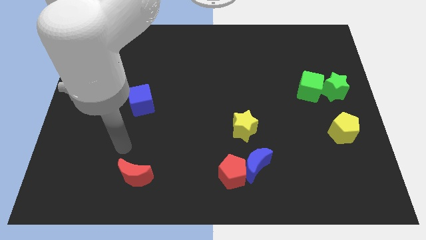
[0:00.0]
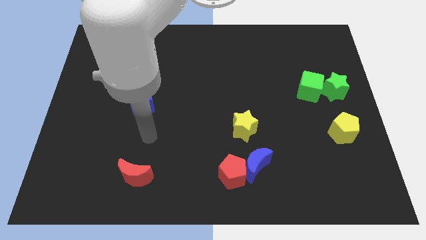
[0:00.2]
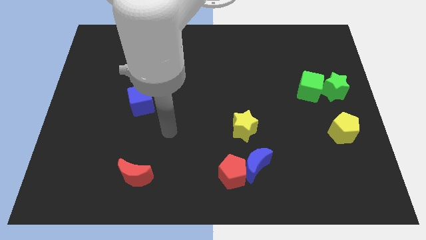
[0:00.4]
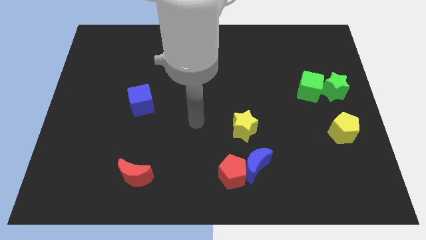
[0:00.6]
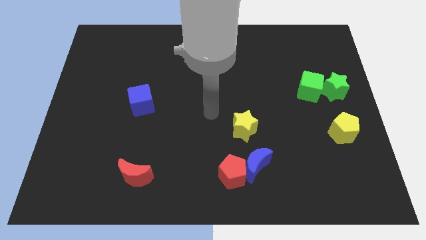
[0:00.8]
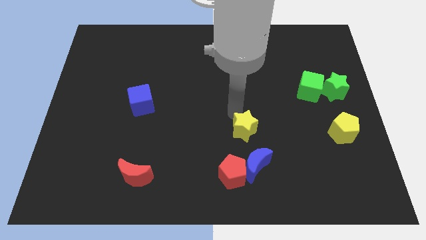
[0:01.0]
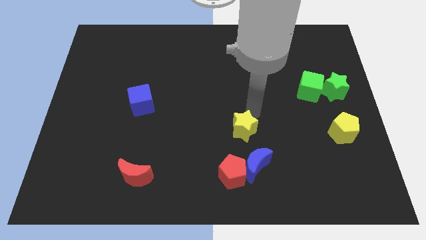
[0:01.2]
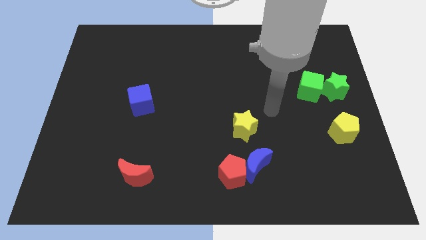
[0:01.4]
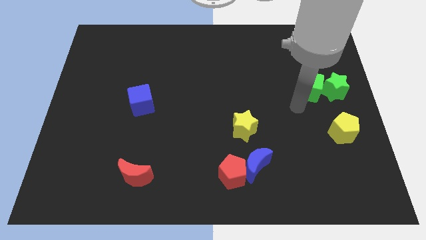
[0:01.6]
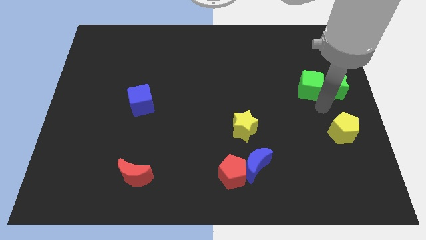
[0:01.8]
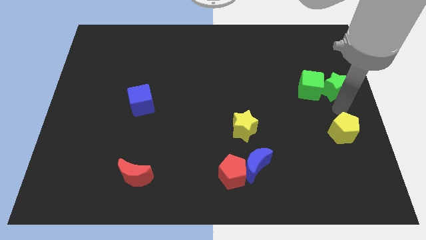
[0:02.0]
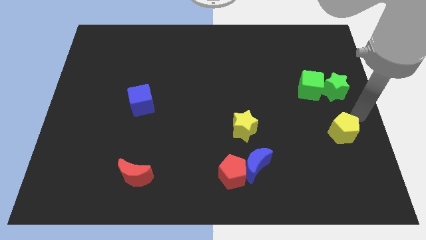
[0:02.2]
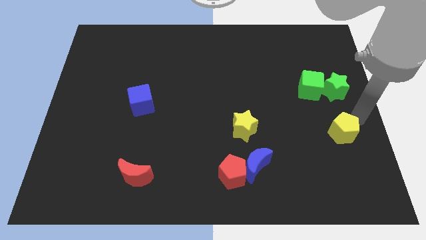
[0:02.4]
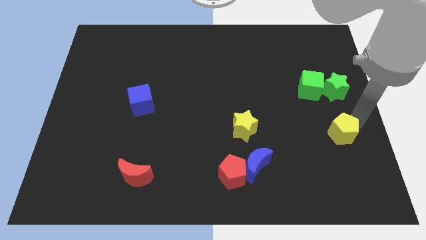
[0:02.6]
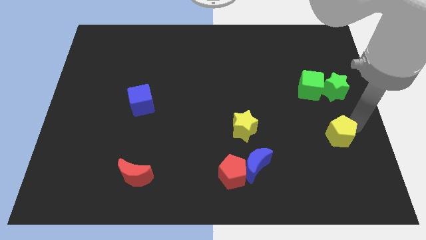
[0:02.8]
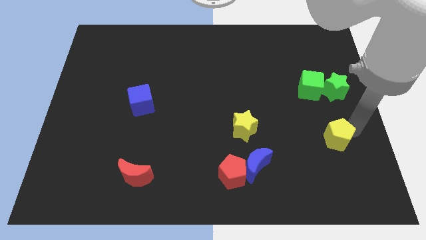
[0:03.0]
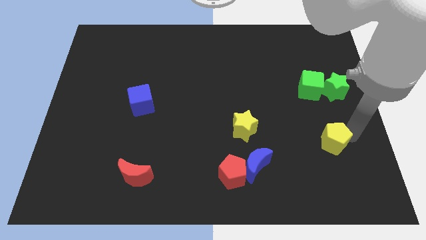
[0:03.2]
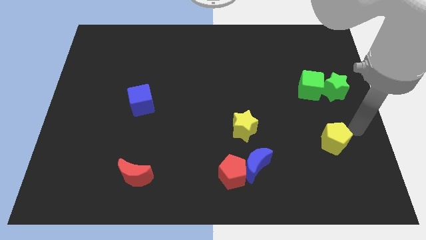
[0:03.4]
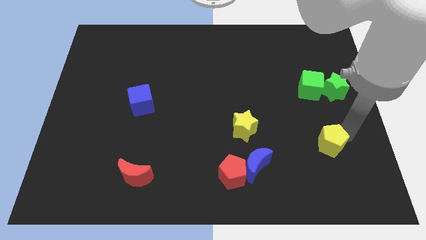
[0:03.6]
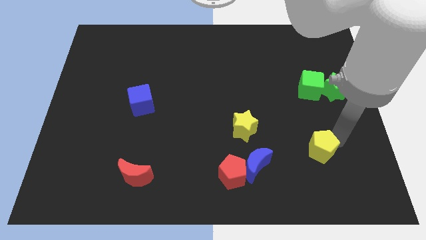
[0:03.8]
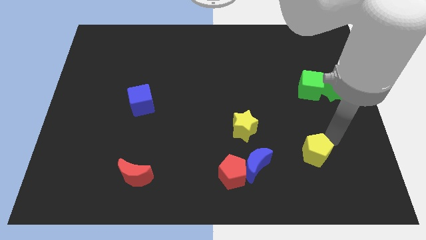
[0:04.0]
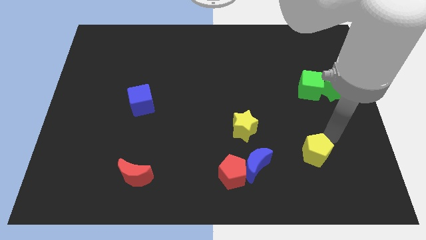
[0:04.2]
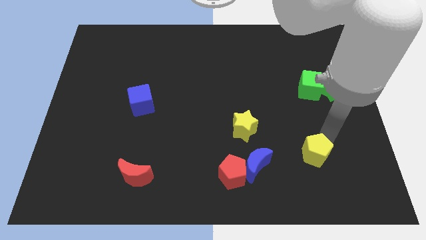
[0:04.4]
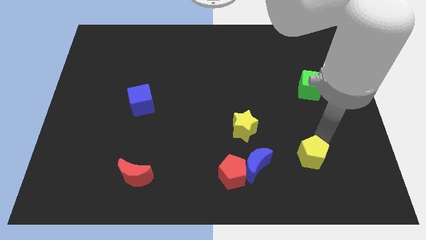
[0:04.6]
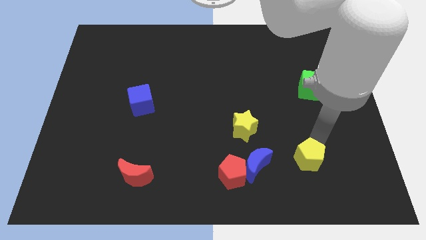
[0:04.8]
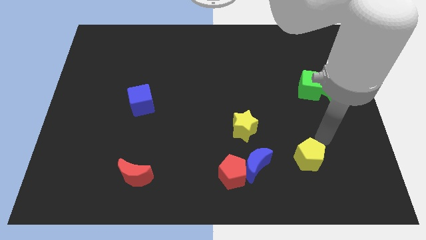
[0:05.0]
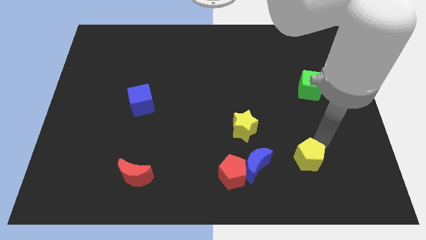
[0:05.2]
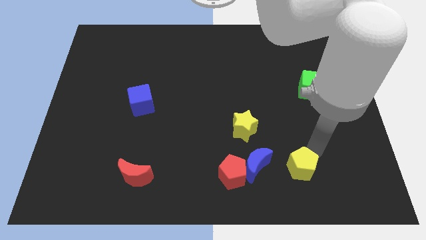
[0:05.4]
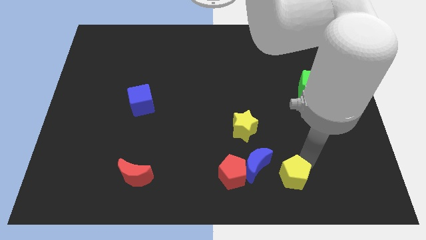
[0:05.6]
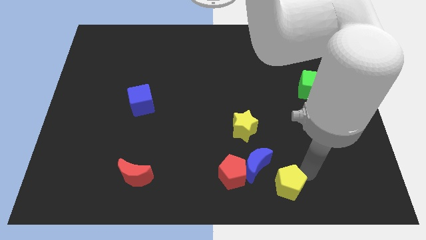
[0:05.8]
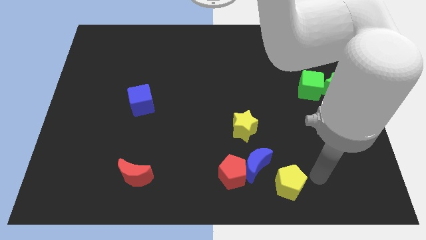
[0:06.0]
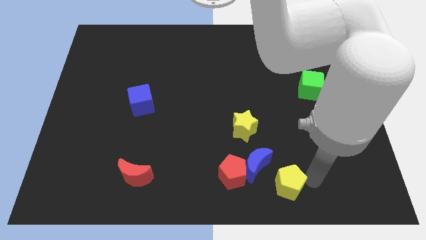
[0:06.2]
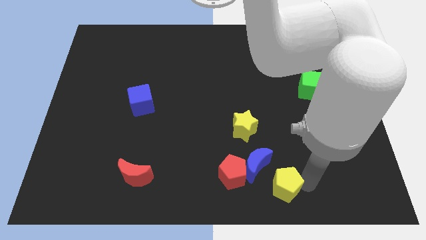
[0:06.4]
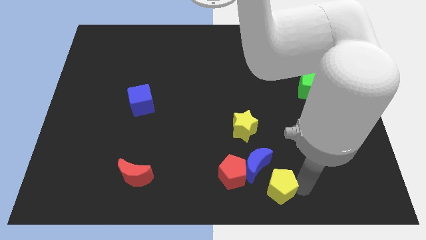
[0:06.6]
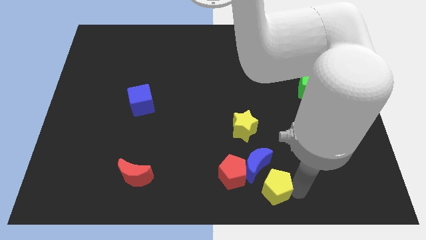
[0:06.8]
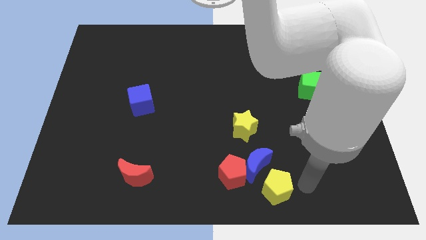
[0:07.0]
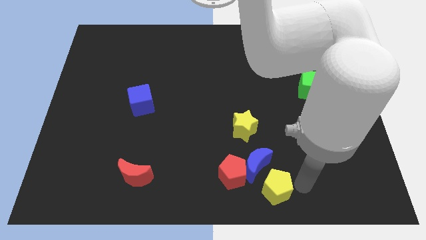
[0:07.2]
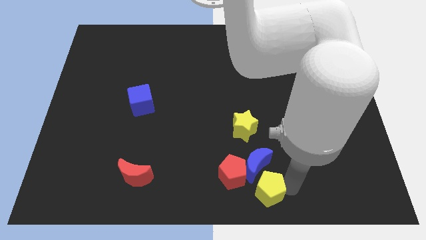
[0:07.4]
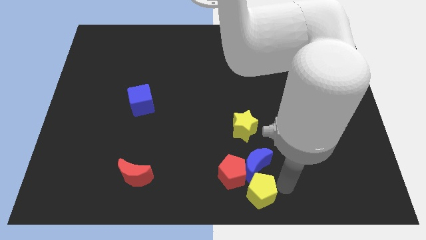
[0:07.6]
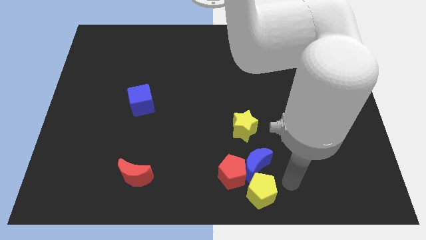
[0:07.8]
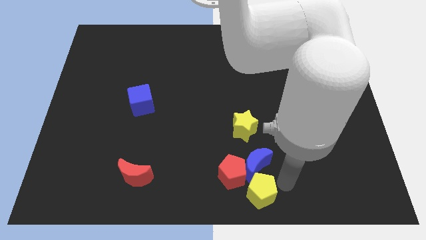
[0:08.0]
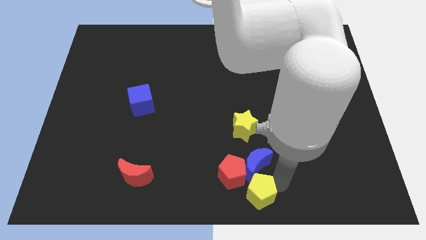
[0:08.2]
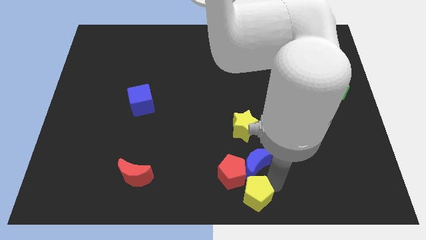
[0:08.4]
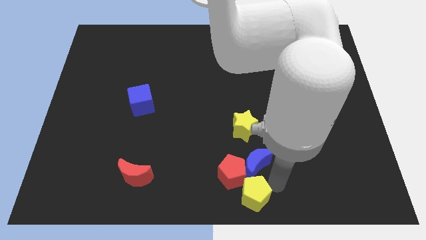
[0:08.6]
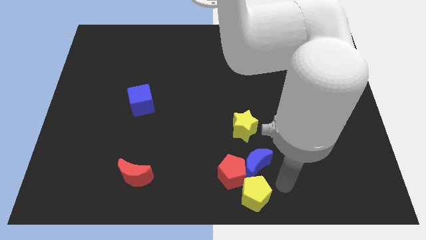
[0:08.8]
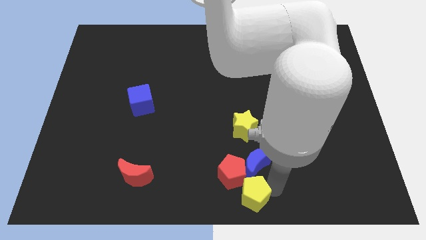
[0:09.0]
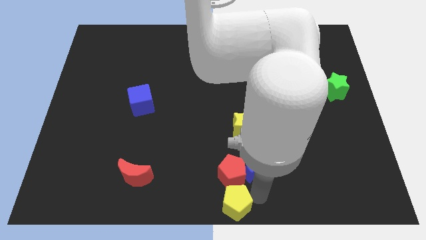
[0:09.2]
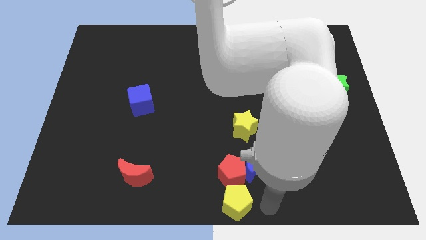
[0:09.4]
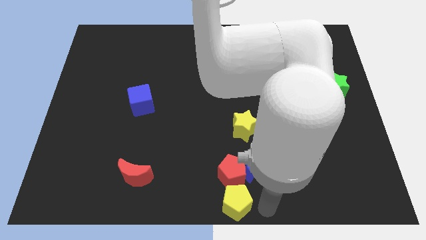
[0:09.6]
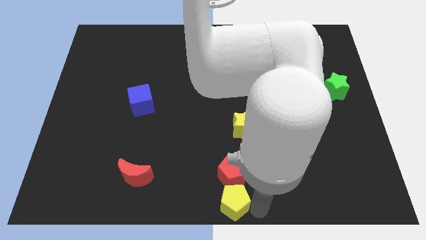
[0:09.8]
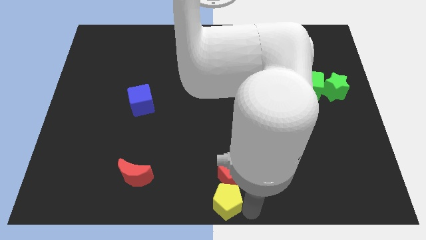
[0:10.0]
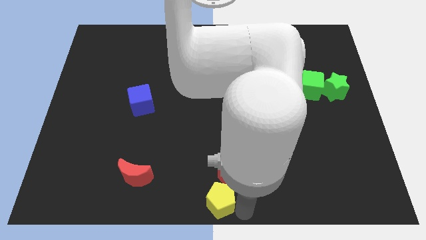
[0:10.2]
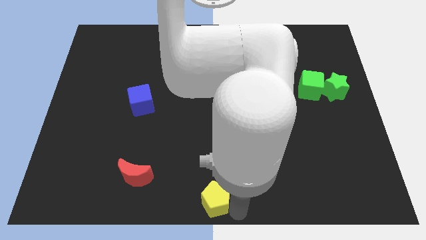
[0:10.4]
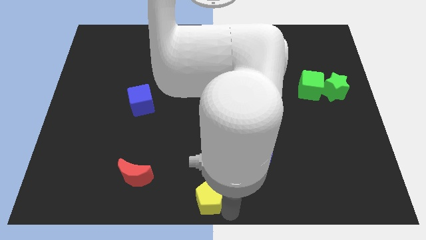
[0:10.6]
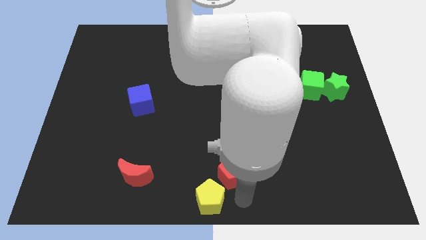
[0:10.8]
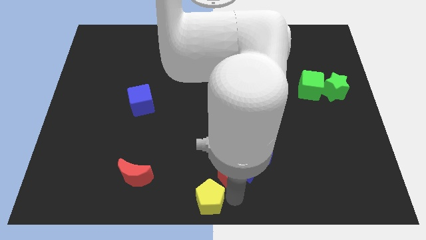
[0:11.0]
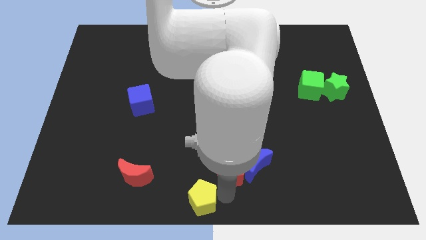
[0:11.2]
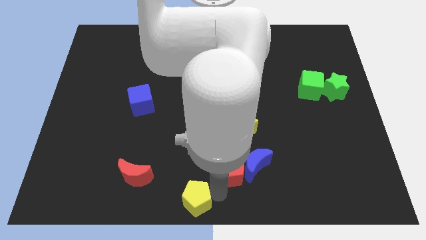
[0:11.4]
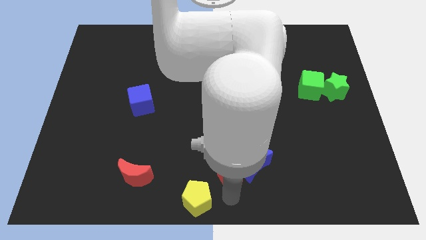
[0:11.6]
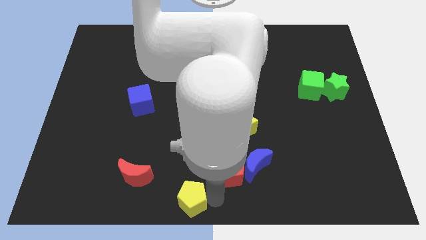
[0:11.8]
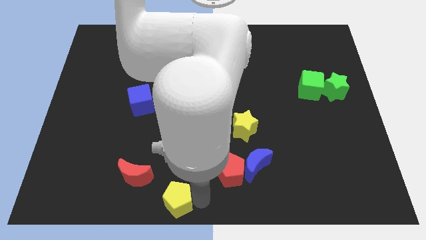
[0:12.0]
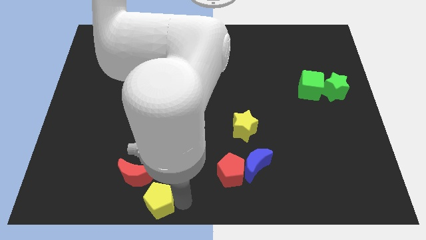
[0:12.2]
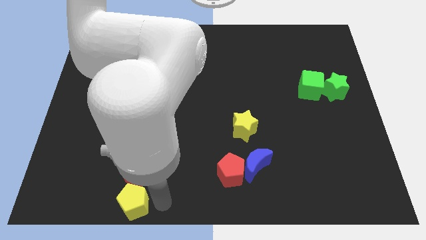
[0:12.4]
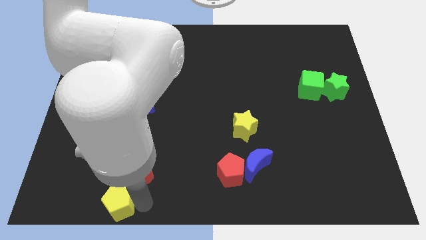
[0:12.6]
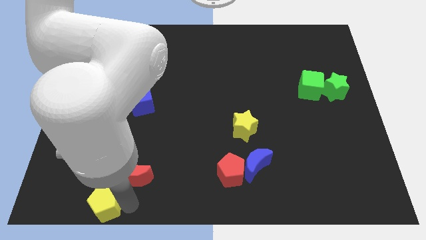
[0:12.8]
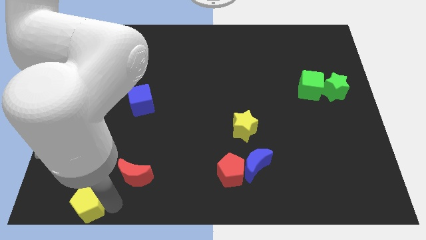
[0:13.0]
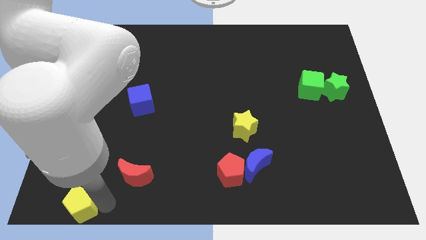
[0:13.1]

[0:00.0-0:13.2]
move the yellow pentagon to the bottom left corner

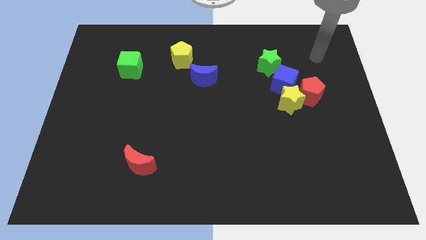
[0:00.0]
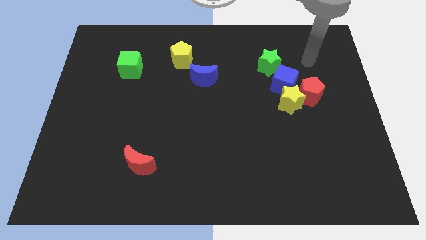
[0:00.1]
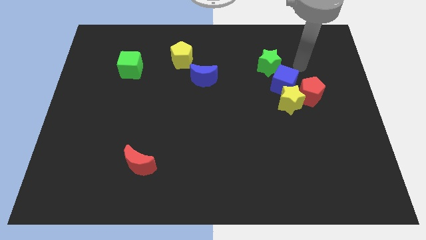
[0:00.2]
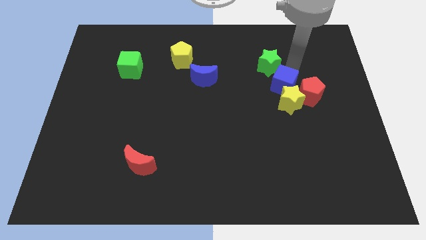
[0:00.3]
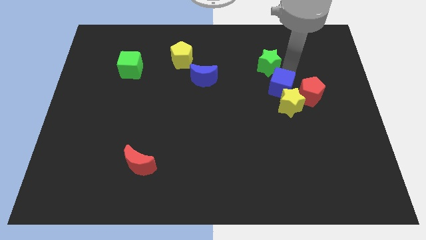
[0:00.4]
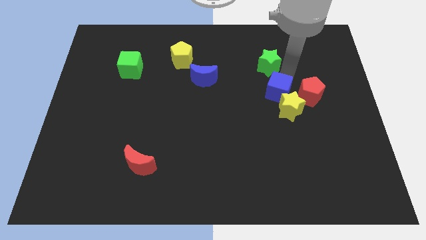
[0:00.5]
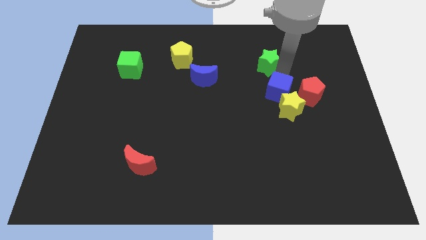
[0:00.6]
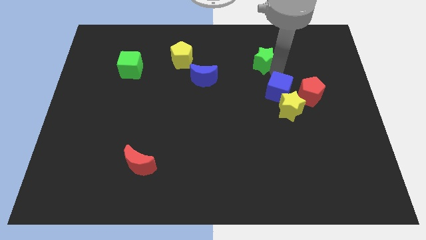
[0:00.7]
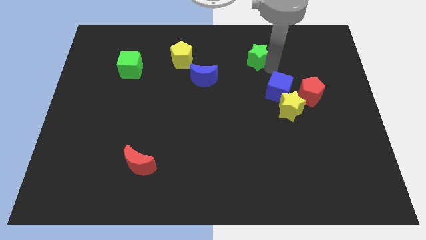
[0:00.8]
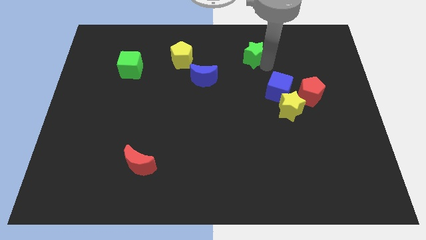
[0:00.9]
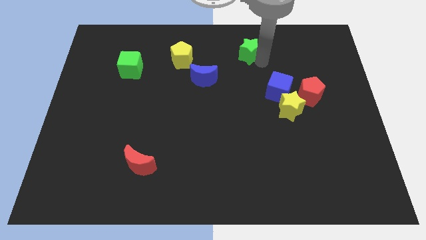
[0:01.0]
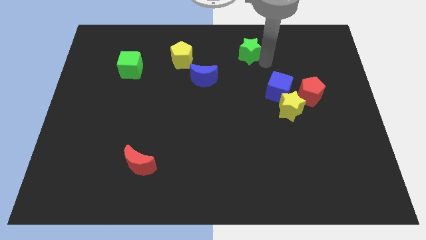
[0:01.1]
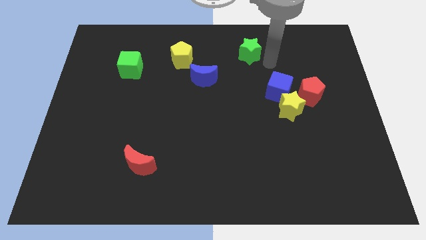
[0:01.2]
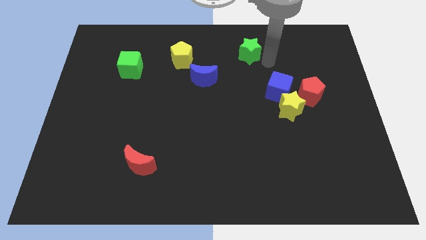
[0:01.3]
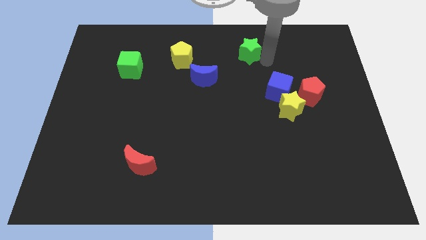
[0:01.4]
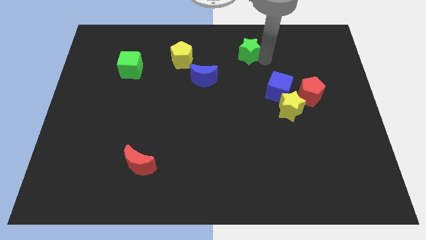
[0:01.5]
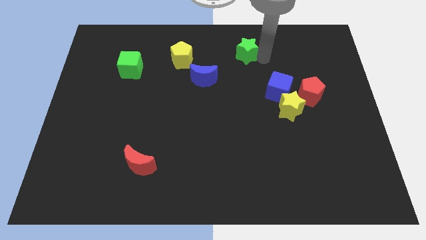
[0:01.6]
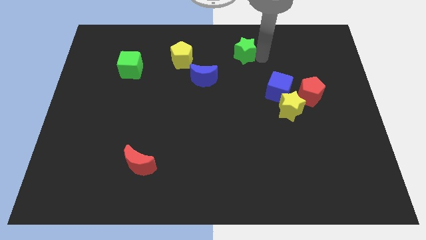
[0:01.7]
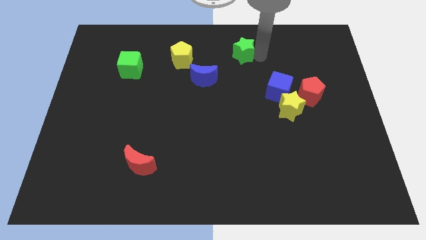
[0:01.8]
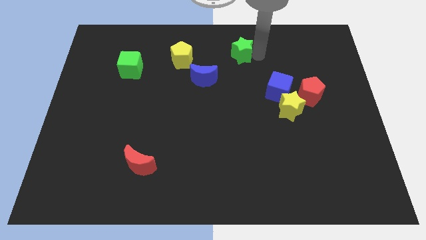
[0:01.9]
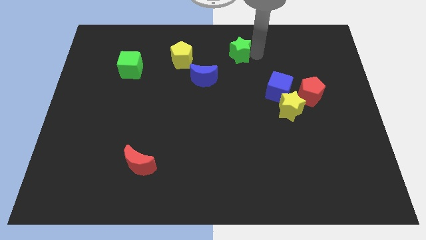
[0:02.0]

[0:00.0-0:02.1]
move the green star to the top
